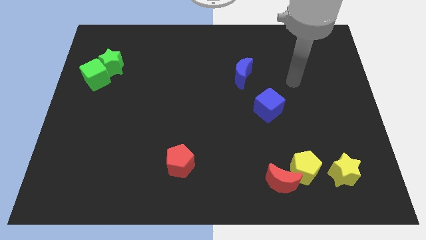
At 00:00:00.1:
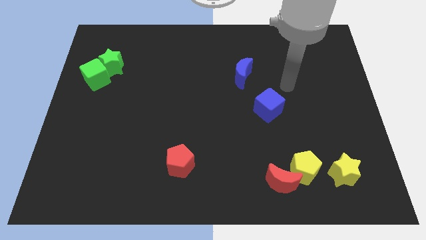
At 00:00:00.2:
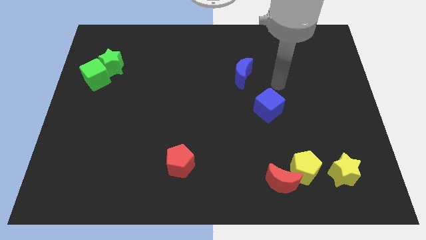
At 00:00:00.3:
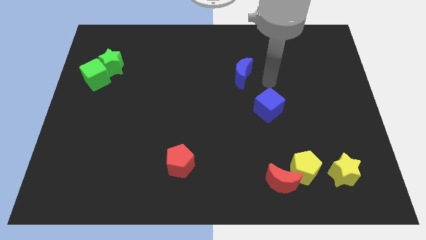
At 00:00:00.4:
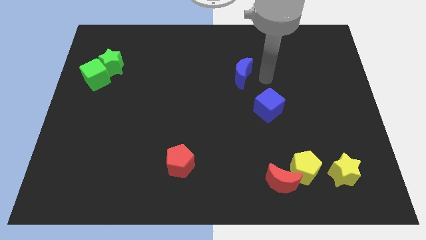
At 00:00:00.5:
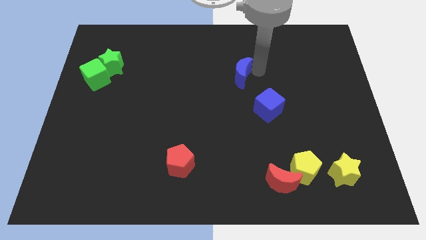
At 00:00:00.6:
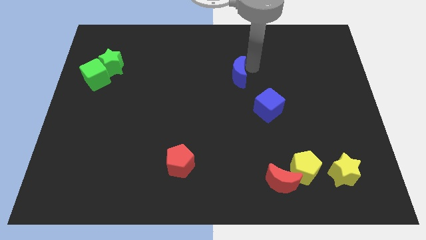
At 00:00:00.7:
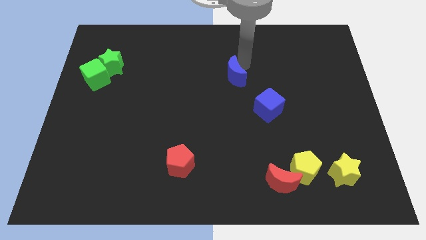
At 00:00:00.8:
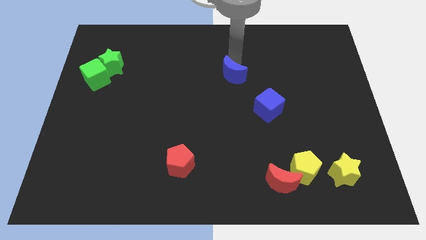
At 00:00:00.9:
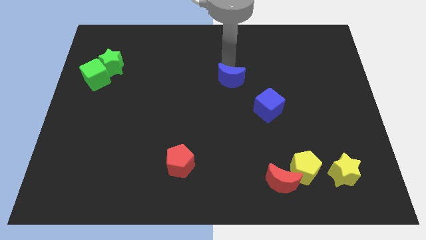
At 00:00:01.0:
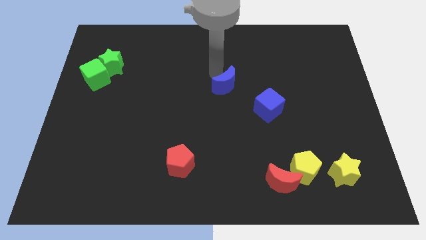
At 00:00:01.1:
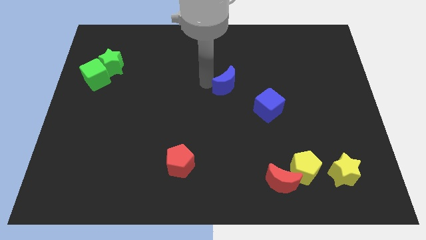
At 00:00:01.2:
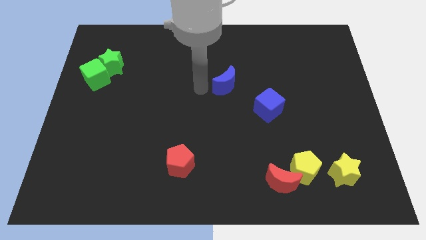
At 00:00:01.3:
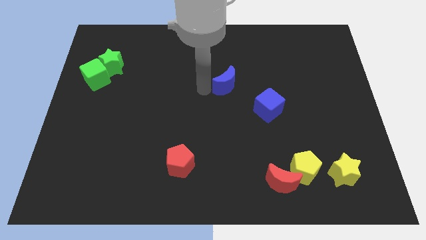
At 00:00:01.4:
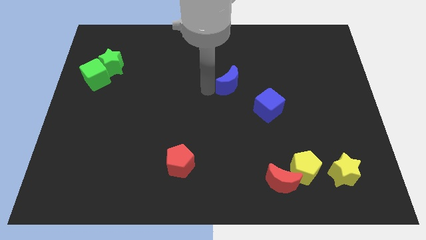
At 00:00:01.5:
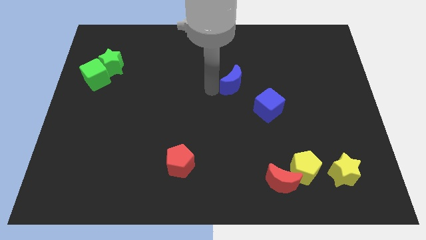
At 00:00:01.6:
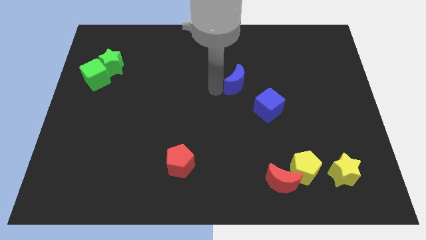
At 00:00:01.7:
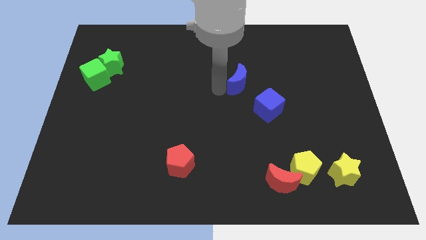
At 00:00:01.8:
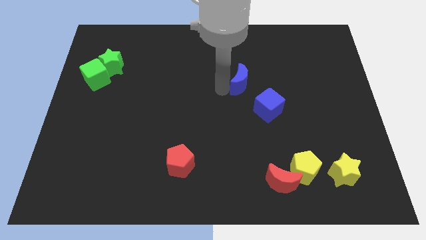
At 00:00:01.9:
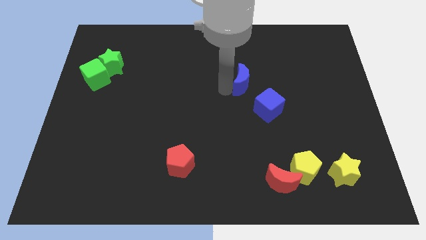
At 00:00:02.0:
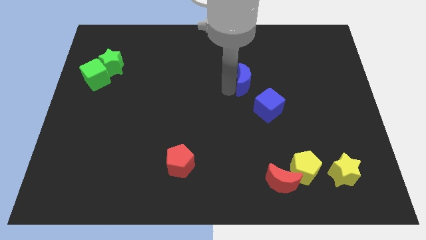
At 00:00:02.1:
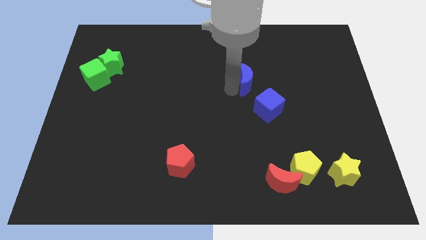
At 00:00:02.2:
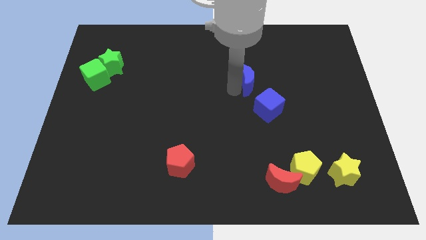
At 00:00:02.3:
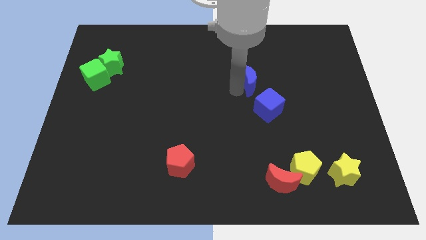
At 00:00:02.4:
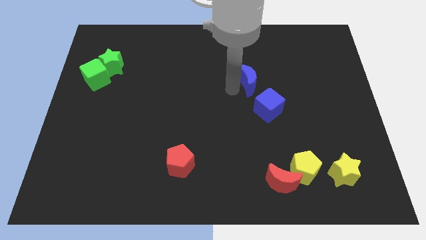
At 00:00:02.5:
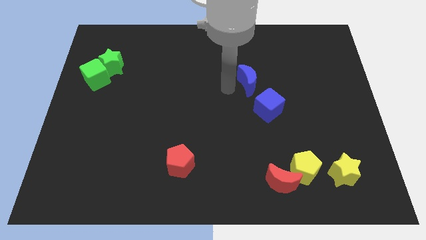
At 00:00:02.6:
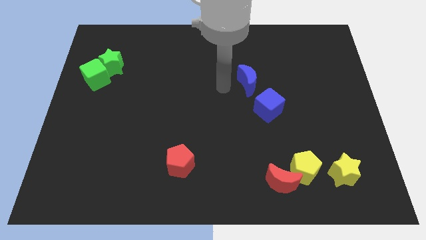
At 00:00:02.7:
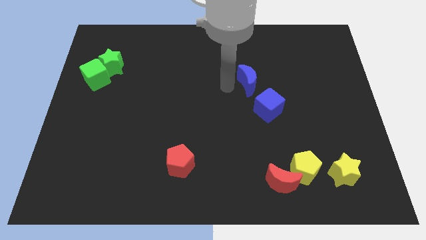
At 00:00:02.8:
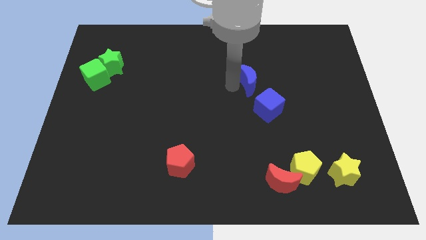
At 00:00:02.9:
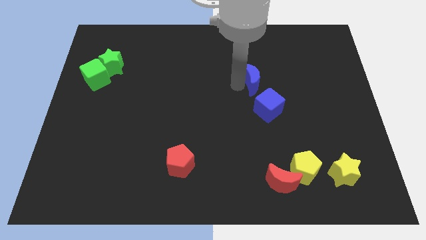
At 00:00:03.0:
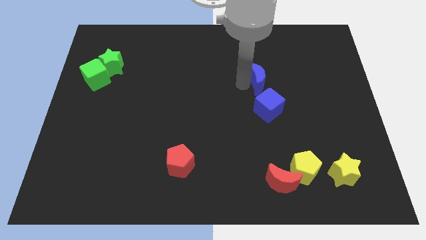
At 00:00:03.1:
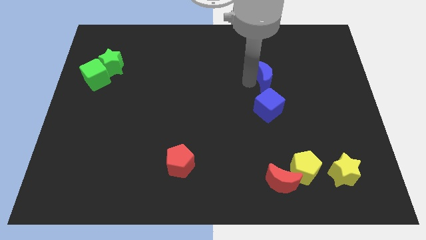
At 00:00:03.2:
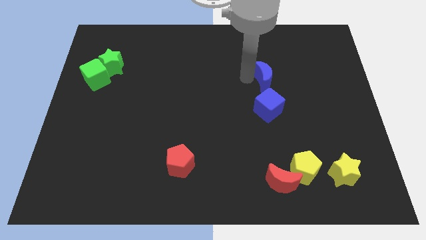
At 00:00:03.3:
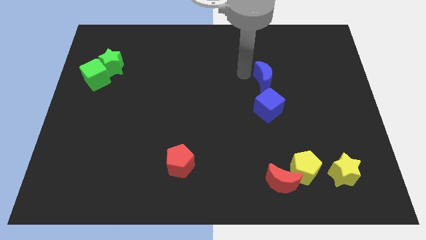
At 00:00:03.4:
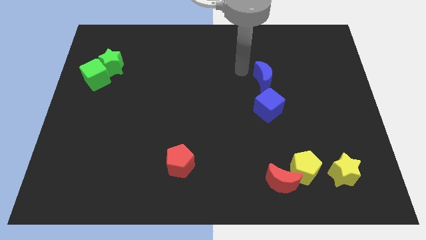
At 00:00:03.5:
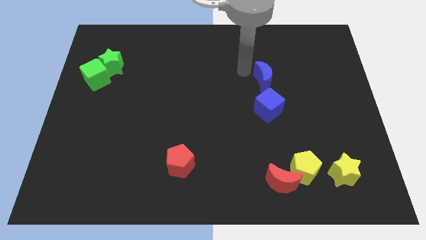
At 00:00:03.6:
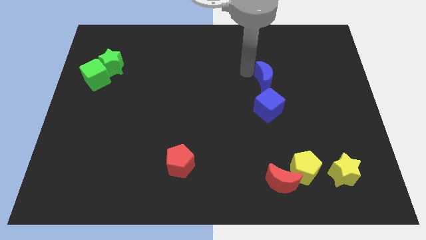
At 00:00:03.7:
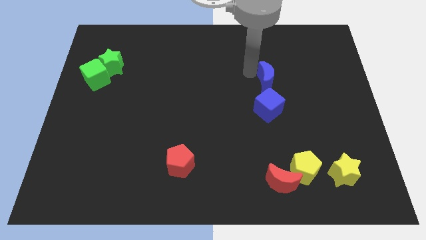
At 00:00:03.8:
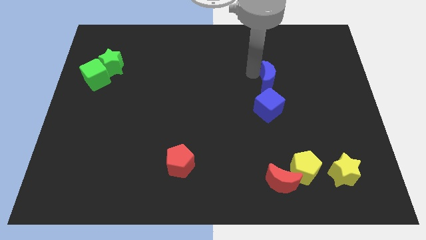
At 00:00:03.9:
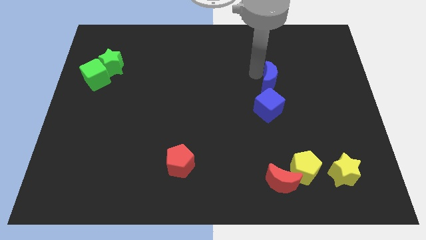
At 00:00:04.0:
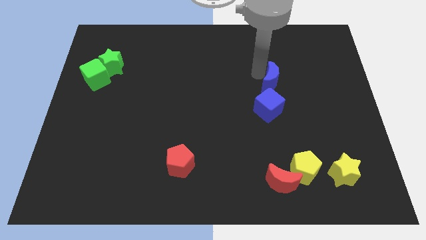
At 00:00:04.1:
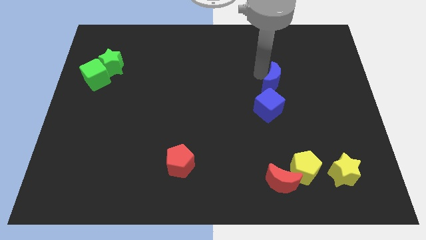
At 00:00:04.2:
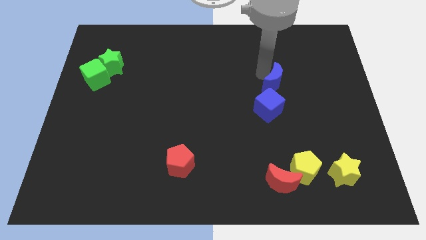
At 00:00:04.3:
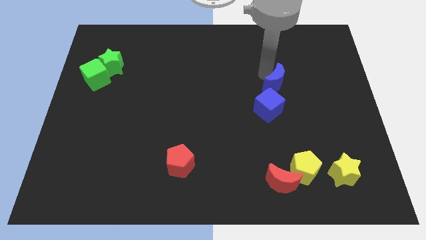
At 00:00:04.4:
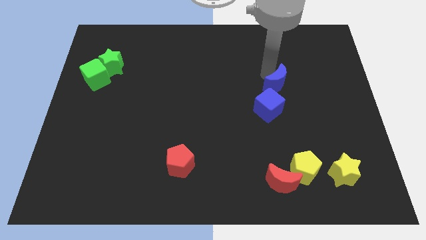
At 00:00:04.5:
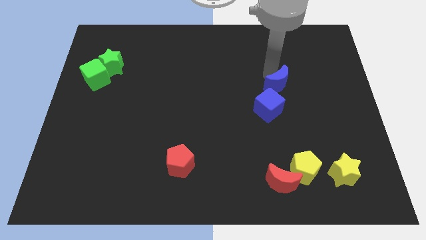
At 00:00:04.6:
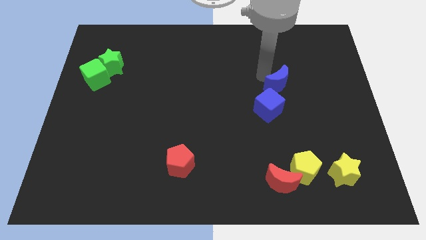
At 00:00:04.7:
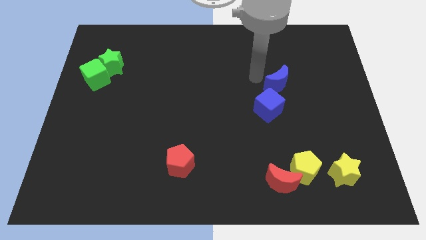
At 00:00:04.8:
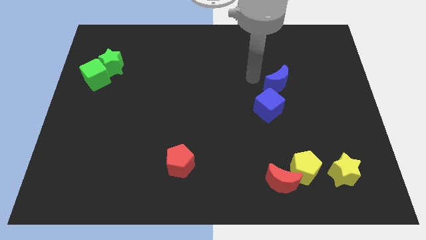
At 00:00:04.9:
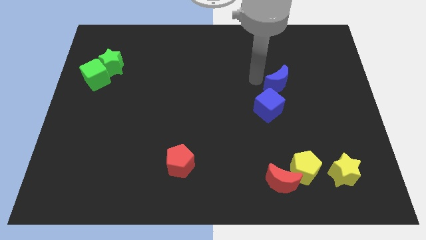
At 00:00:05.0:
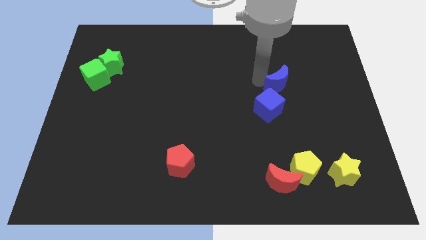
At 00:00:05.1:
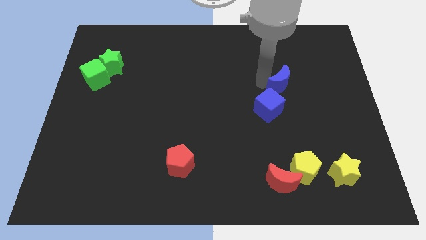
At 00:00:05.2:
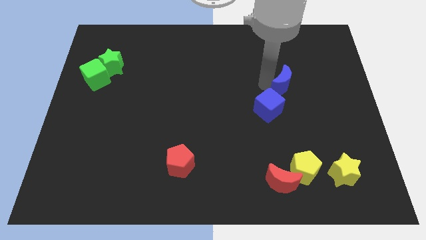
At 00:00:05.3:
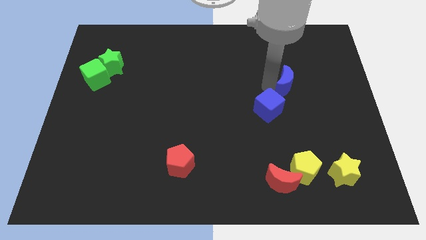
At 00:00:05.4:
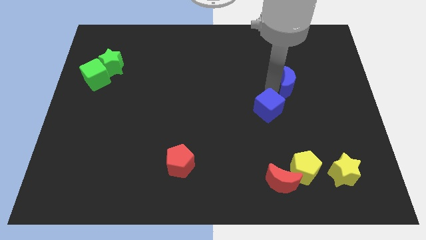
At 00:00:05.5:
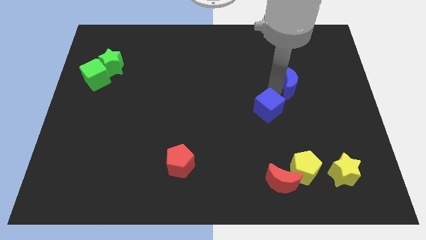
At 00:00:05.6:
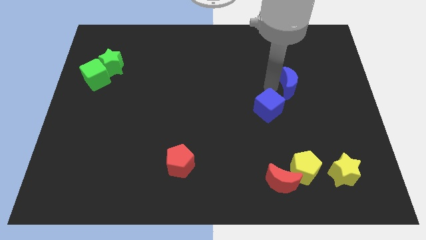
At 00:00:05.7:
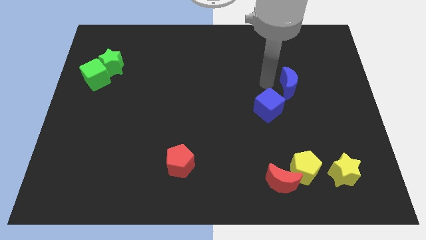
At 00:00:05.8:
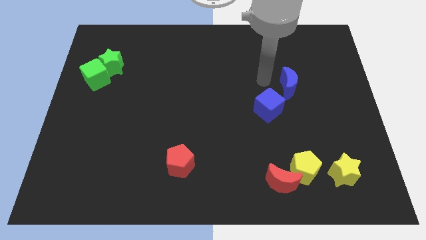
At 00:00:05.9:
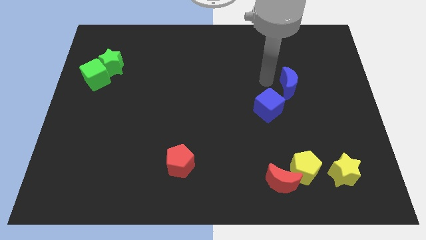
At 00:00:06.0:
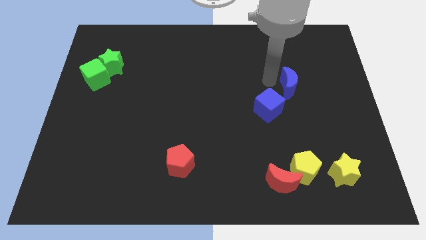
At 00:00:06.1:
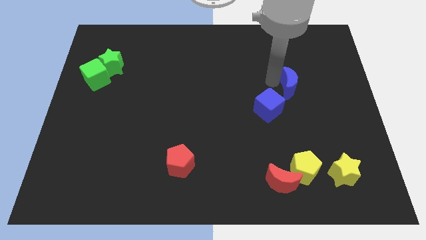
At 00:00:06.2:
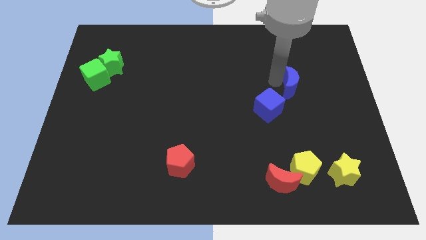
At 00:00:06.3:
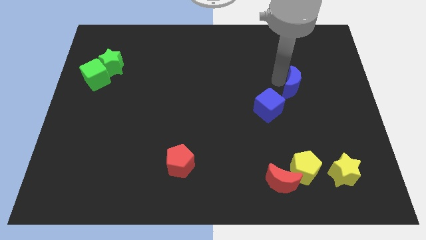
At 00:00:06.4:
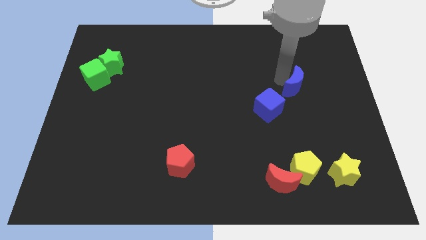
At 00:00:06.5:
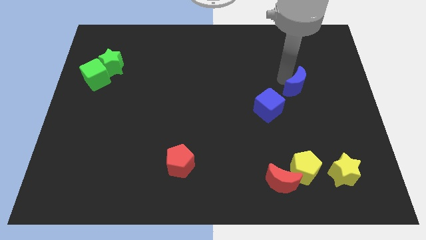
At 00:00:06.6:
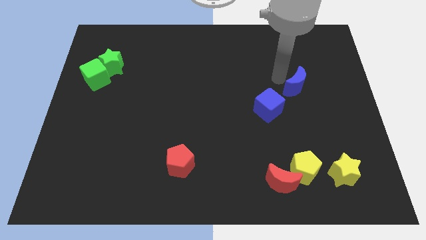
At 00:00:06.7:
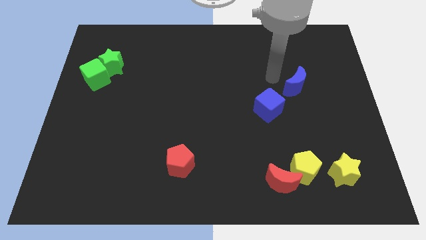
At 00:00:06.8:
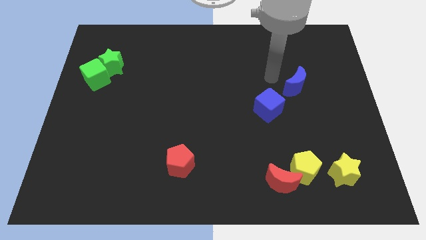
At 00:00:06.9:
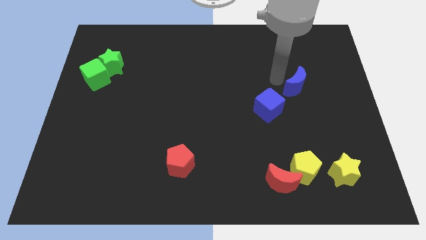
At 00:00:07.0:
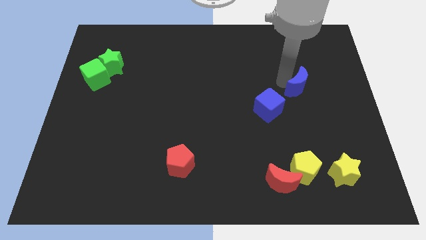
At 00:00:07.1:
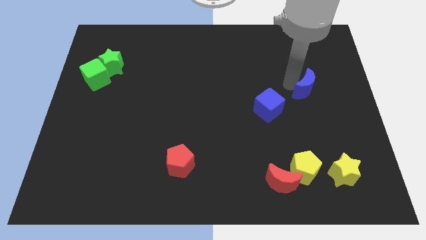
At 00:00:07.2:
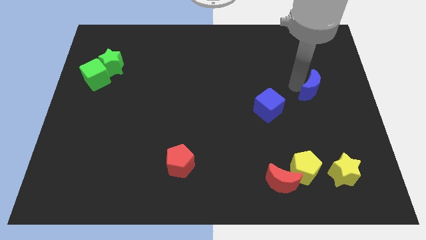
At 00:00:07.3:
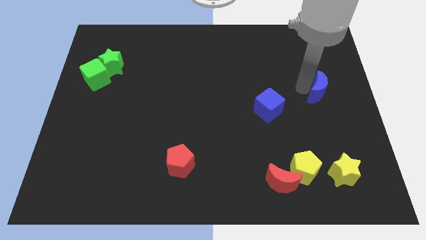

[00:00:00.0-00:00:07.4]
put the blue moon to the right side of the board
